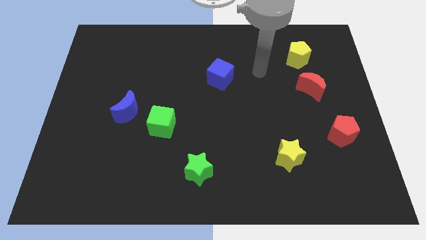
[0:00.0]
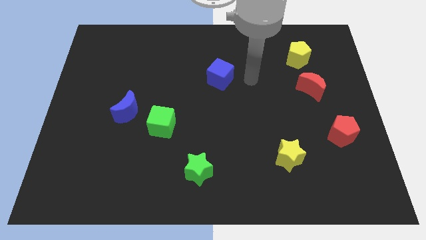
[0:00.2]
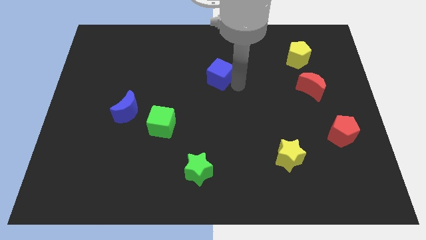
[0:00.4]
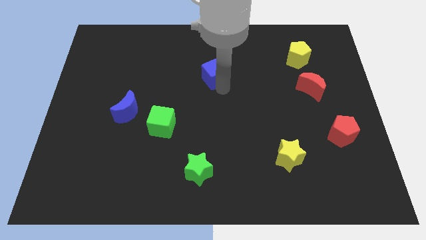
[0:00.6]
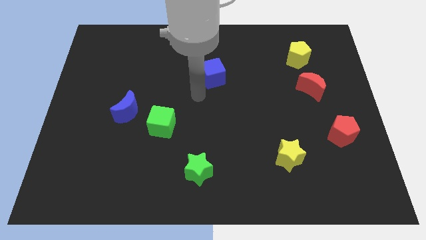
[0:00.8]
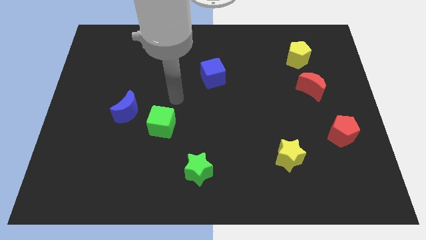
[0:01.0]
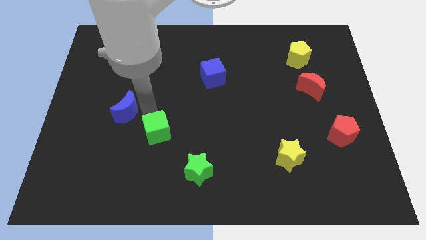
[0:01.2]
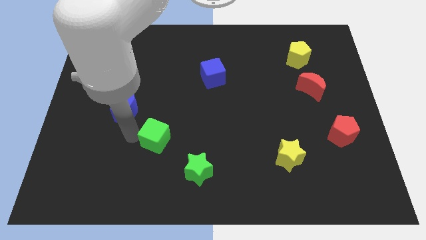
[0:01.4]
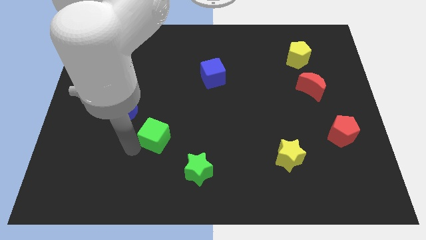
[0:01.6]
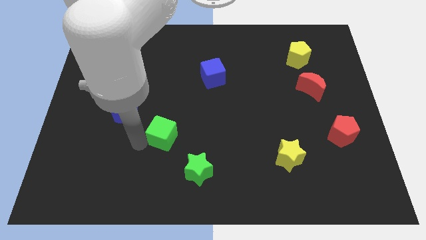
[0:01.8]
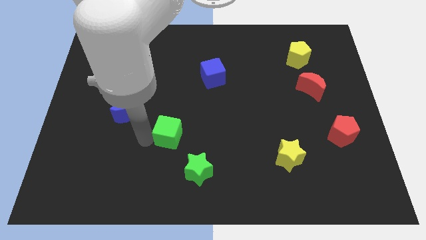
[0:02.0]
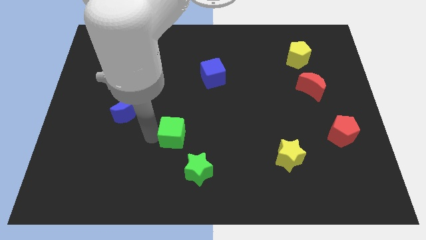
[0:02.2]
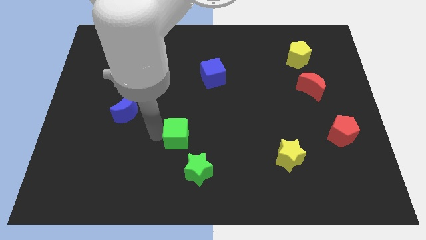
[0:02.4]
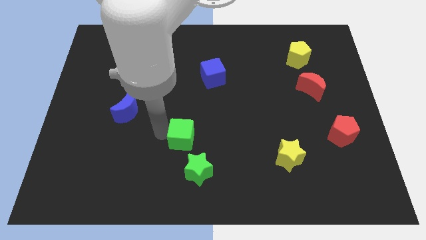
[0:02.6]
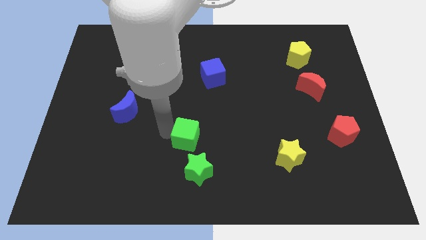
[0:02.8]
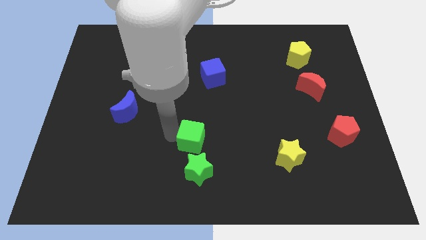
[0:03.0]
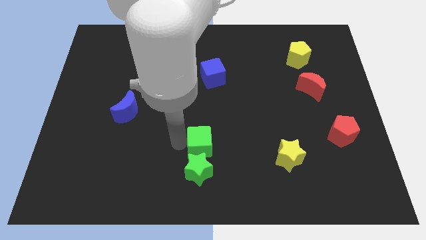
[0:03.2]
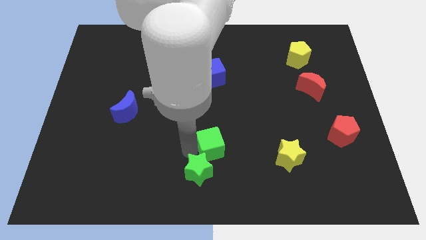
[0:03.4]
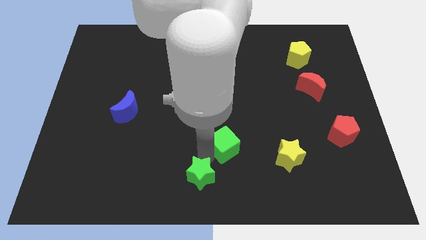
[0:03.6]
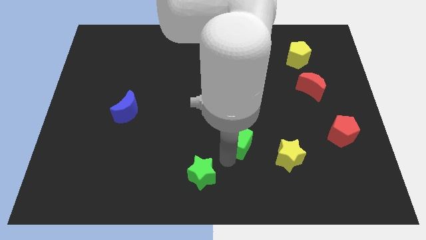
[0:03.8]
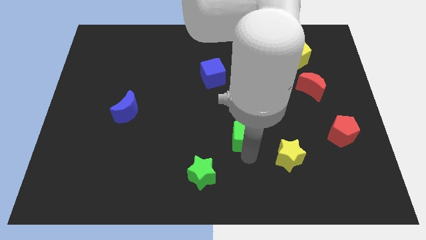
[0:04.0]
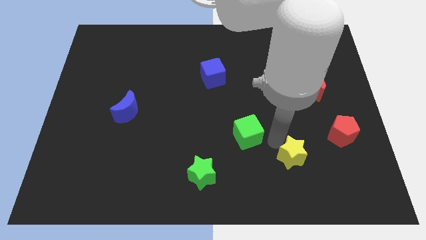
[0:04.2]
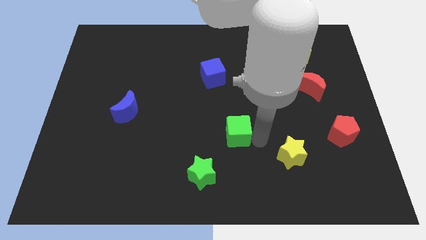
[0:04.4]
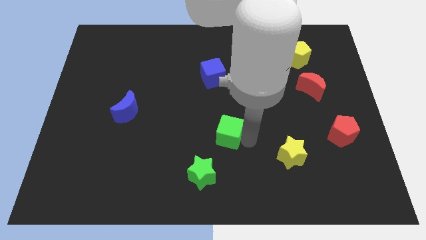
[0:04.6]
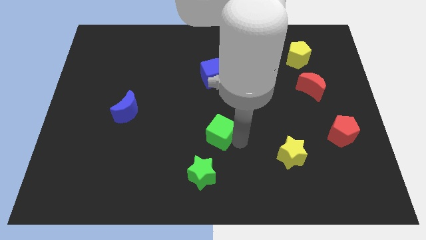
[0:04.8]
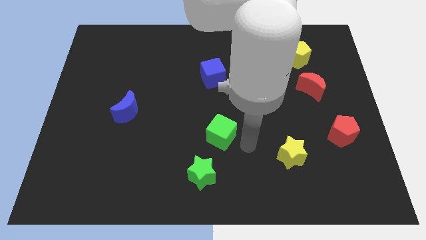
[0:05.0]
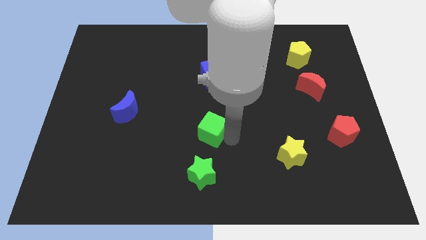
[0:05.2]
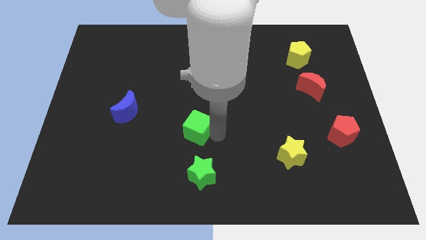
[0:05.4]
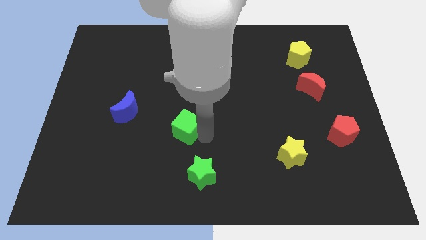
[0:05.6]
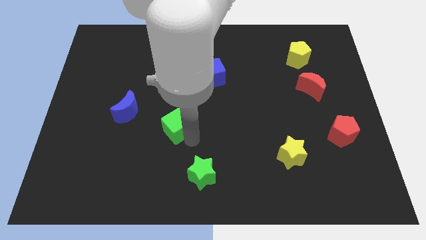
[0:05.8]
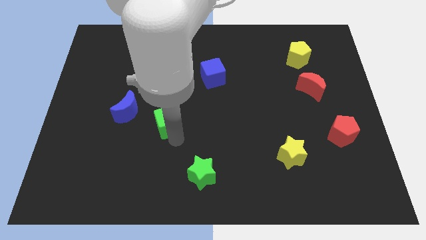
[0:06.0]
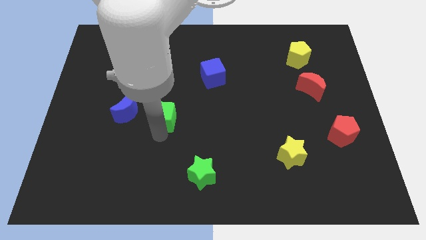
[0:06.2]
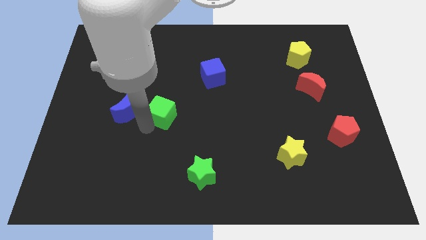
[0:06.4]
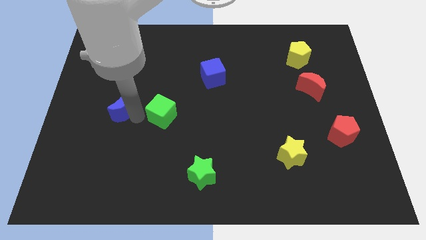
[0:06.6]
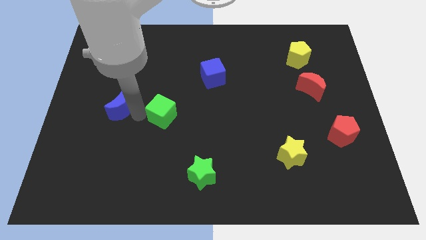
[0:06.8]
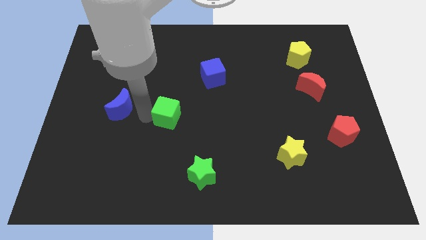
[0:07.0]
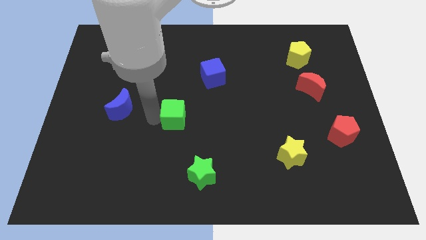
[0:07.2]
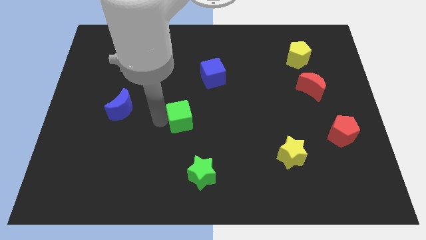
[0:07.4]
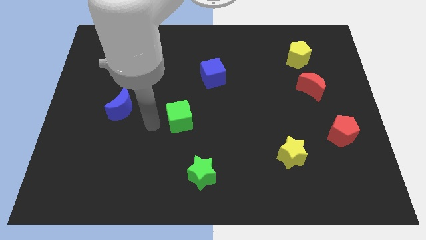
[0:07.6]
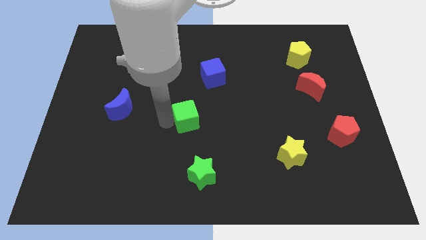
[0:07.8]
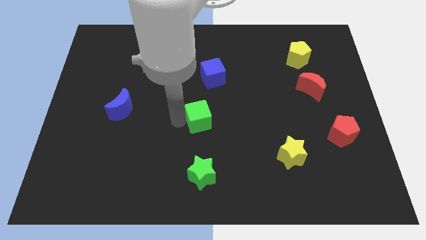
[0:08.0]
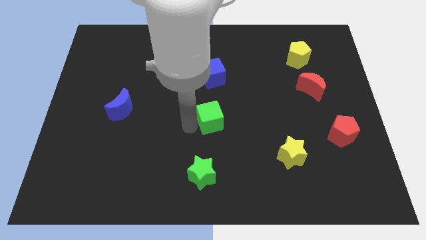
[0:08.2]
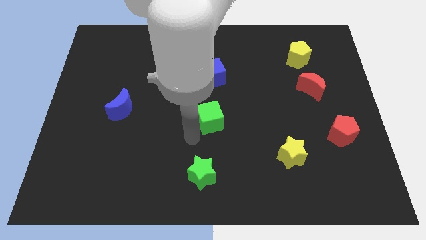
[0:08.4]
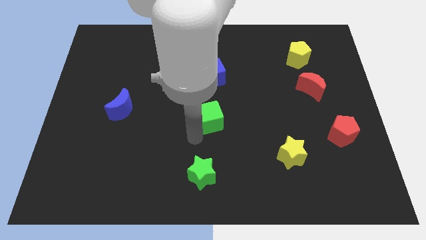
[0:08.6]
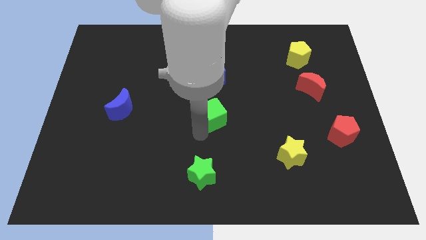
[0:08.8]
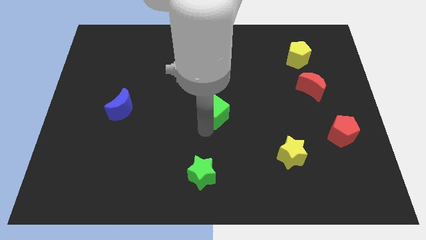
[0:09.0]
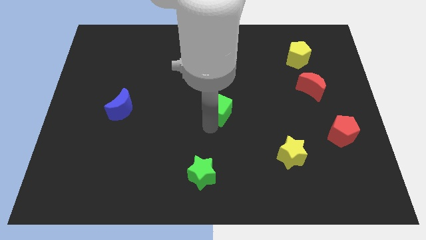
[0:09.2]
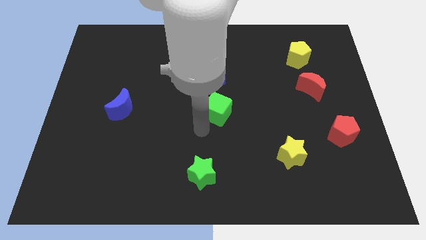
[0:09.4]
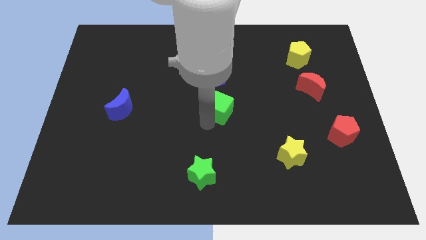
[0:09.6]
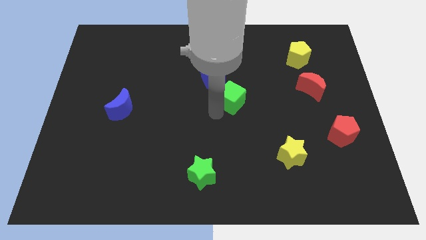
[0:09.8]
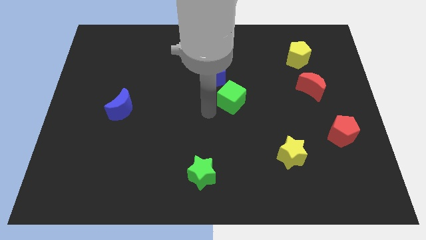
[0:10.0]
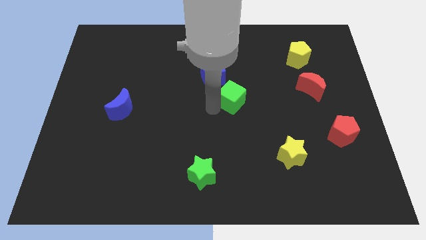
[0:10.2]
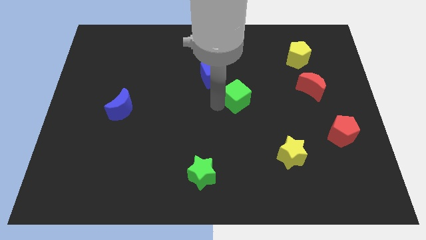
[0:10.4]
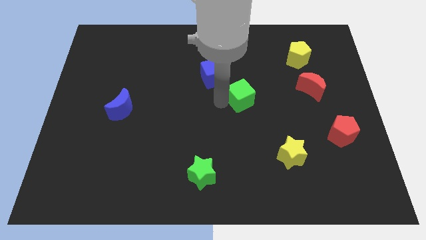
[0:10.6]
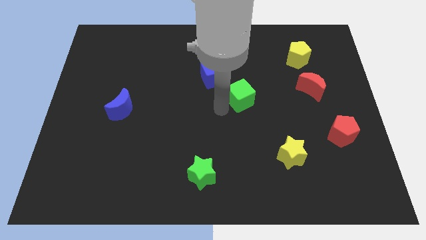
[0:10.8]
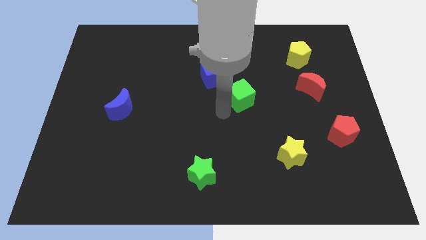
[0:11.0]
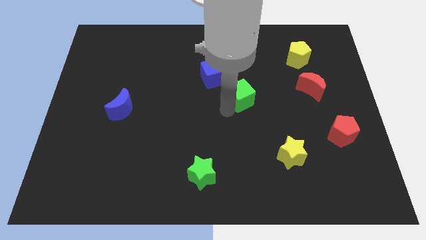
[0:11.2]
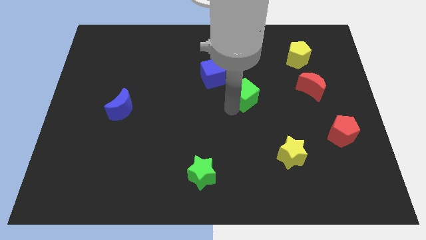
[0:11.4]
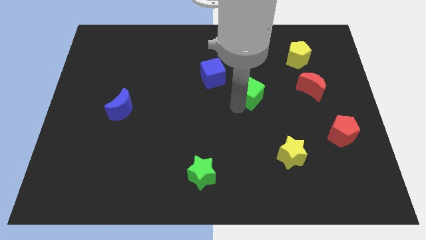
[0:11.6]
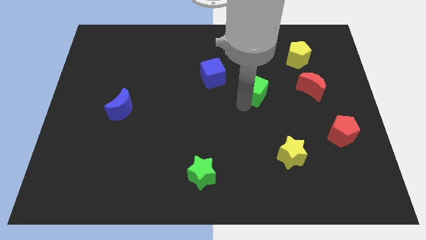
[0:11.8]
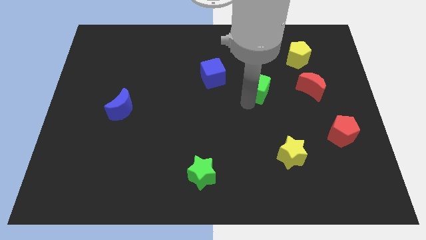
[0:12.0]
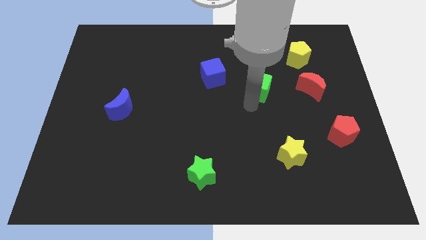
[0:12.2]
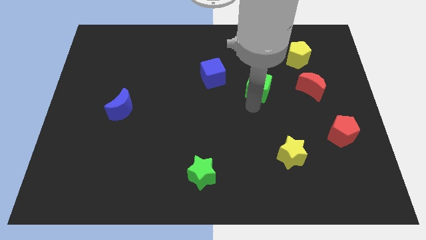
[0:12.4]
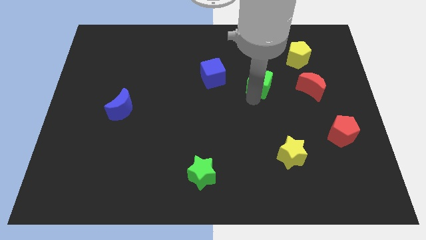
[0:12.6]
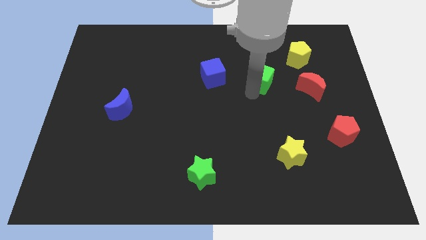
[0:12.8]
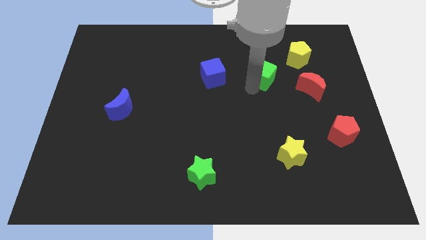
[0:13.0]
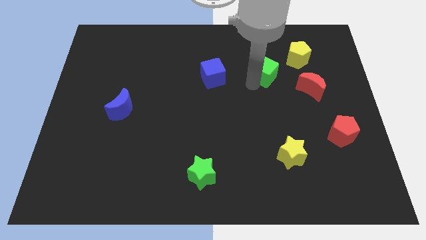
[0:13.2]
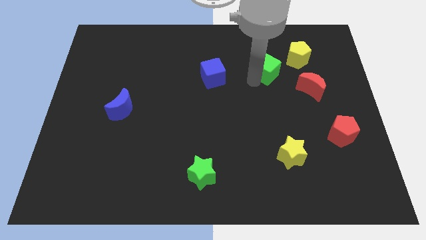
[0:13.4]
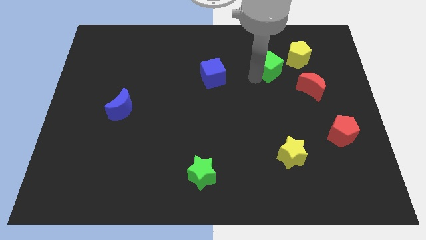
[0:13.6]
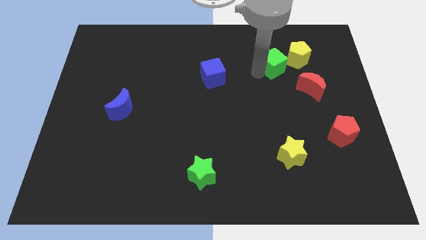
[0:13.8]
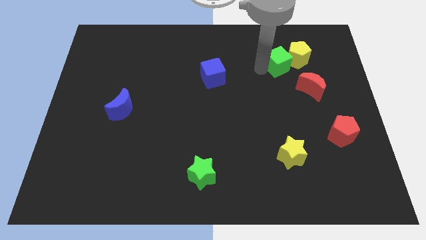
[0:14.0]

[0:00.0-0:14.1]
push the green cube next to the yellow pentagon

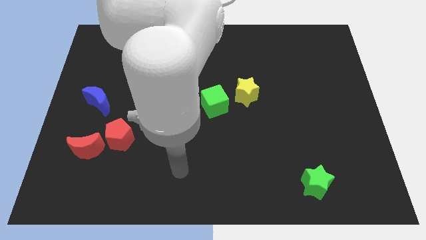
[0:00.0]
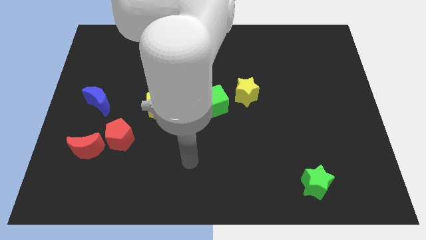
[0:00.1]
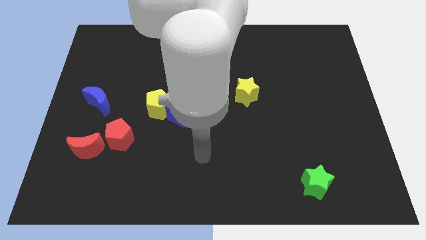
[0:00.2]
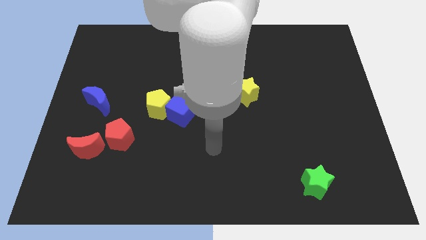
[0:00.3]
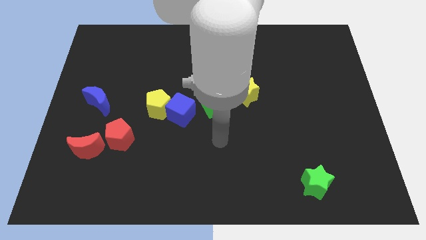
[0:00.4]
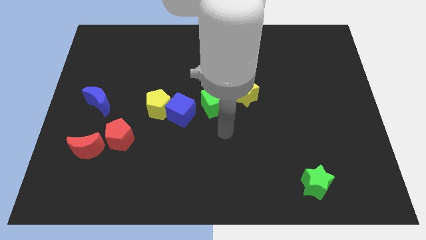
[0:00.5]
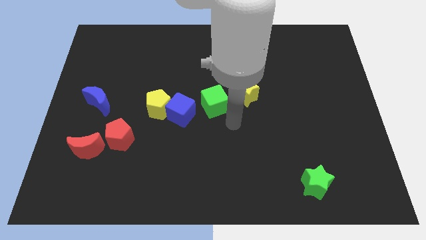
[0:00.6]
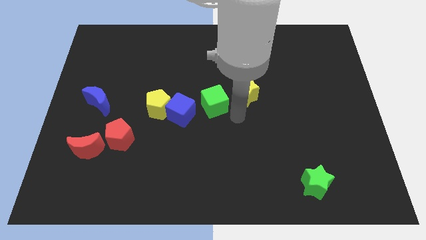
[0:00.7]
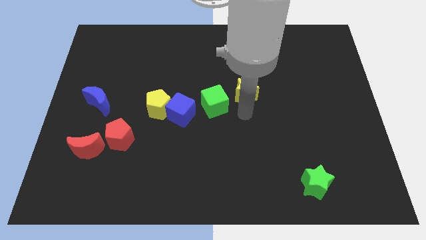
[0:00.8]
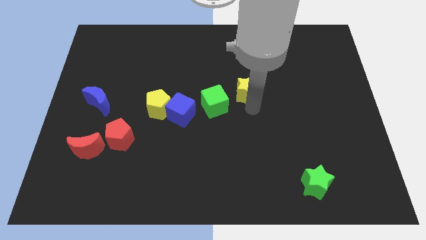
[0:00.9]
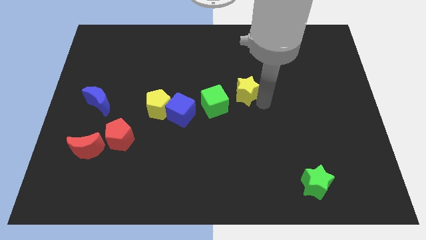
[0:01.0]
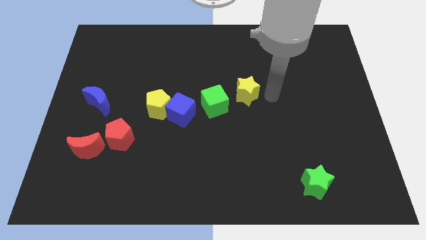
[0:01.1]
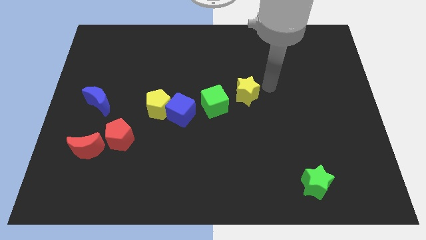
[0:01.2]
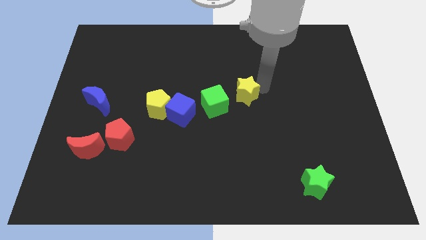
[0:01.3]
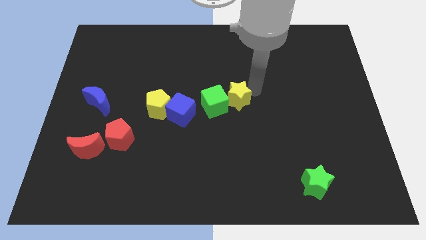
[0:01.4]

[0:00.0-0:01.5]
push the yellow star next to the green cube
